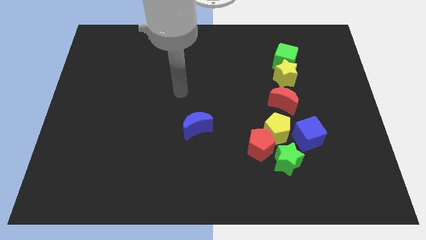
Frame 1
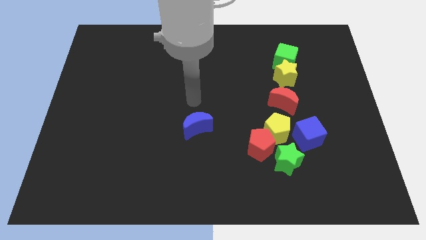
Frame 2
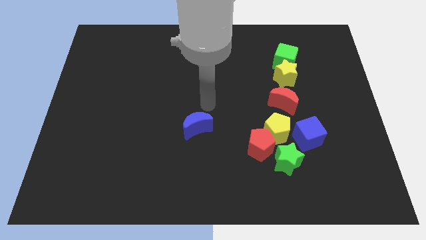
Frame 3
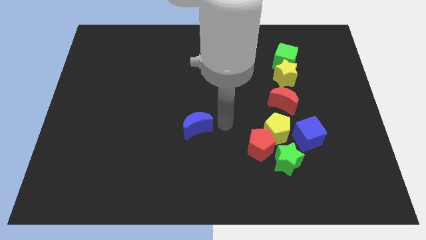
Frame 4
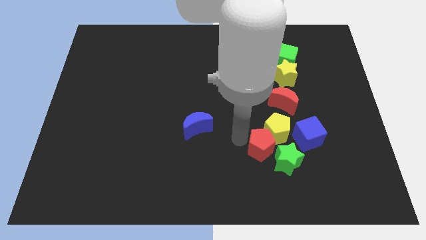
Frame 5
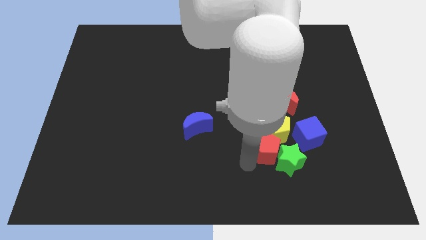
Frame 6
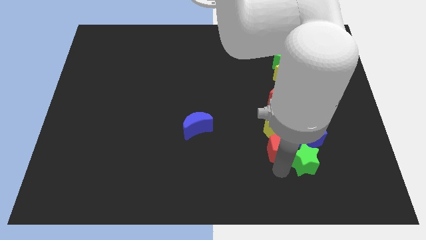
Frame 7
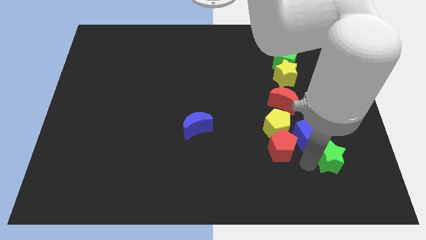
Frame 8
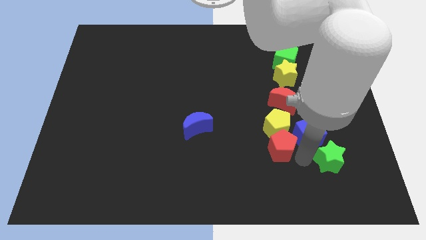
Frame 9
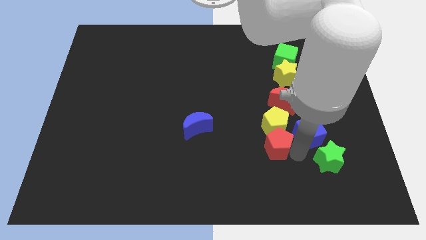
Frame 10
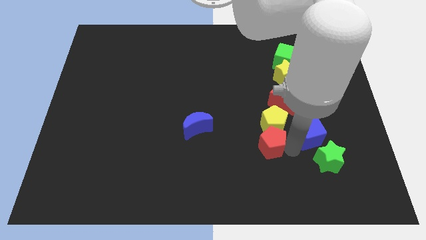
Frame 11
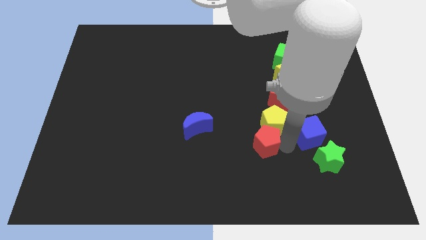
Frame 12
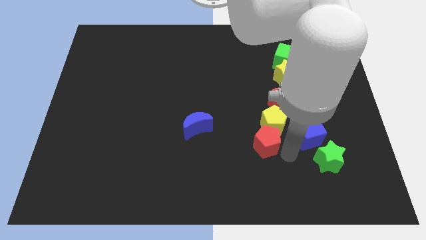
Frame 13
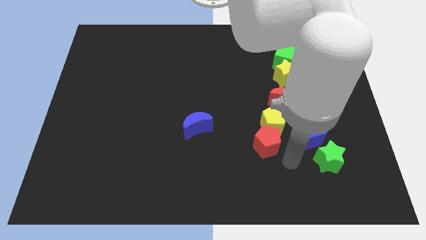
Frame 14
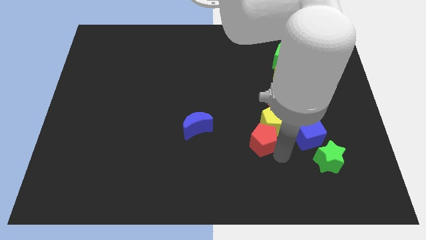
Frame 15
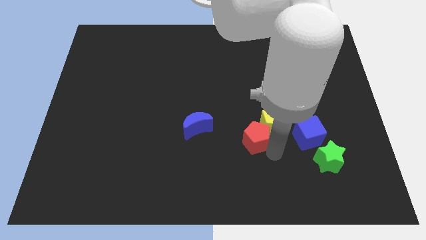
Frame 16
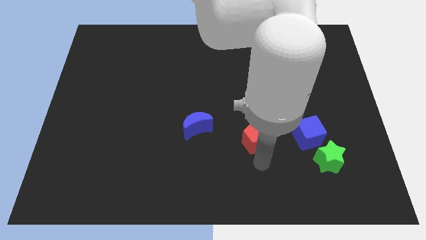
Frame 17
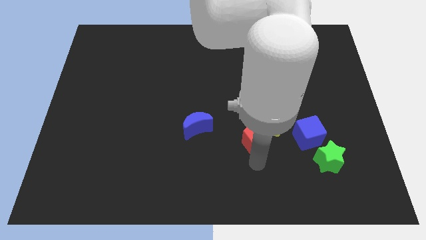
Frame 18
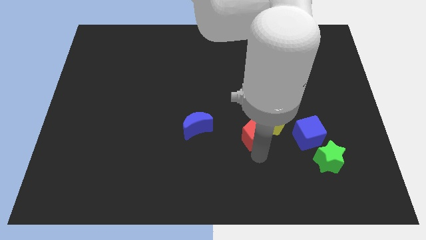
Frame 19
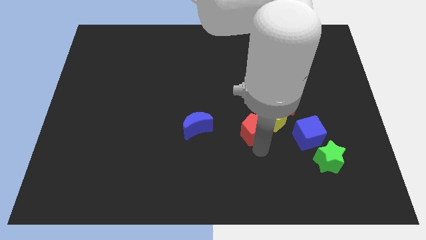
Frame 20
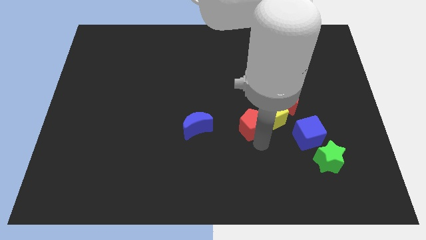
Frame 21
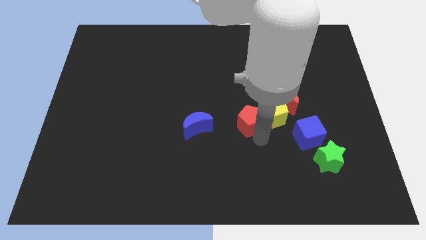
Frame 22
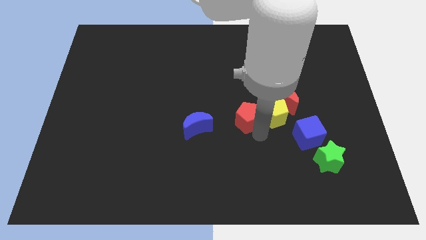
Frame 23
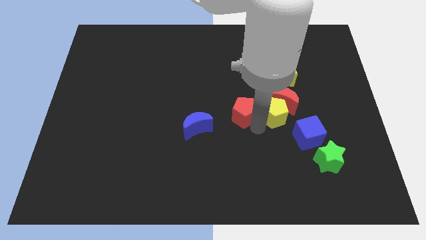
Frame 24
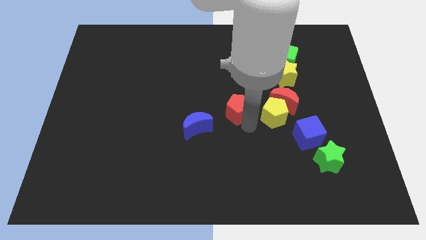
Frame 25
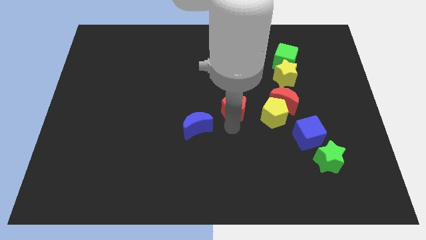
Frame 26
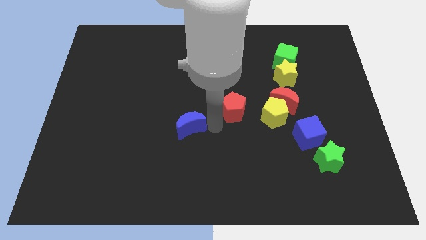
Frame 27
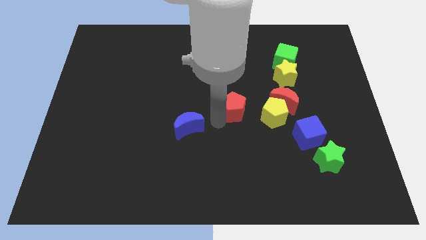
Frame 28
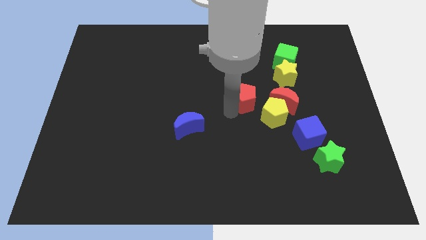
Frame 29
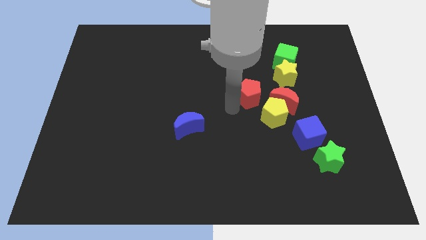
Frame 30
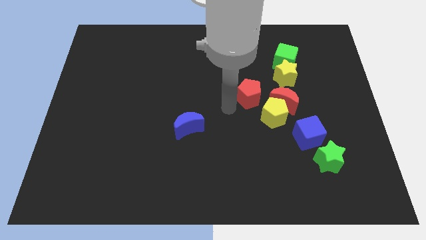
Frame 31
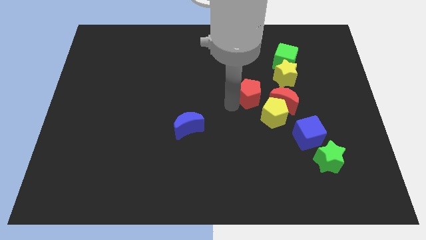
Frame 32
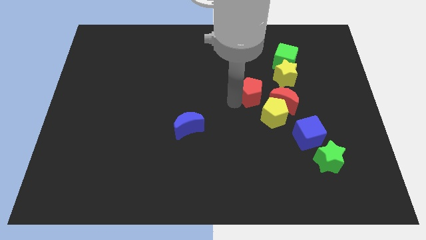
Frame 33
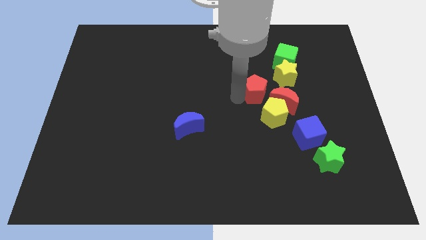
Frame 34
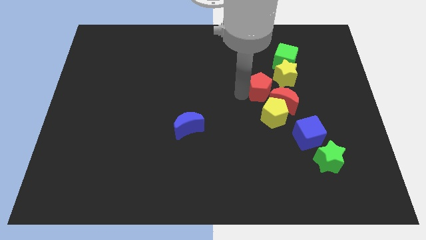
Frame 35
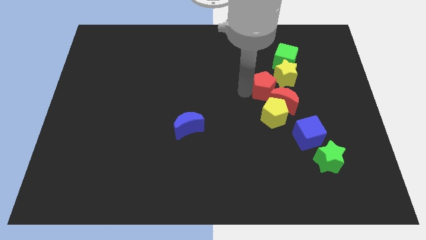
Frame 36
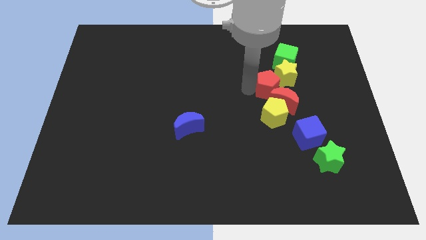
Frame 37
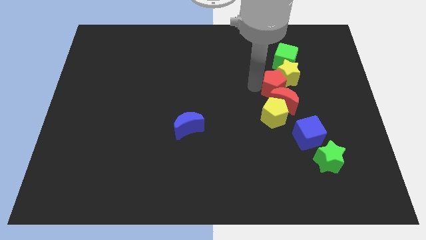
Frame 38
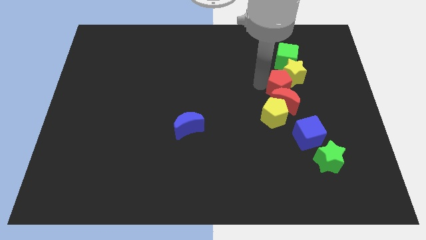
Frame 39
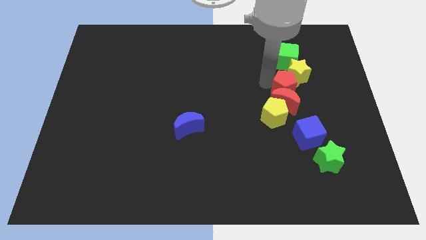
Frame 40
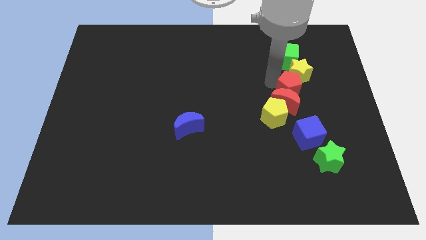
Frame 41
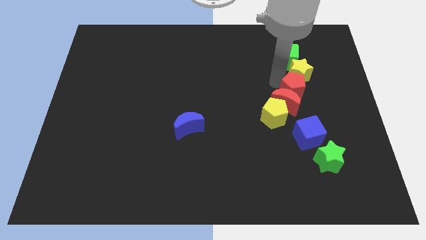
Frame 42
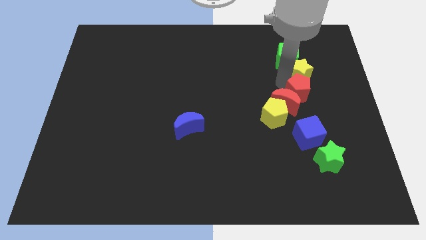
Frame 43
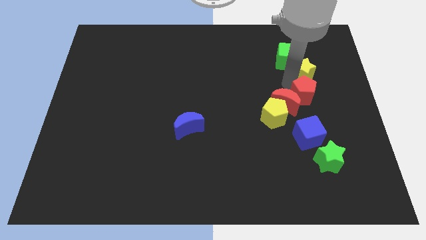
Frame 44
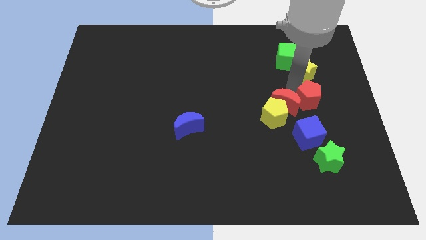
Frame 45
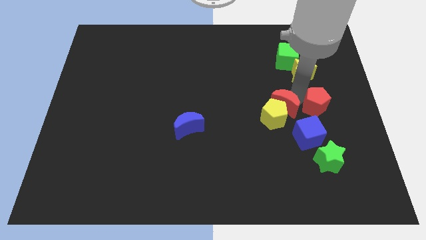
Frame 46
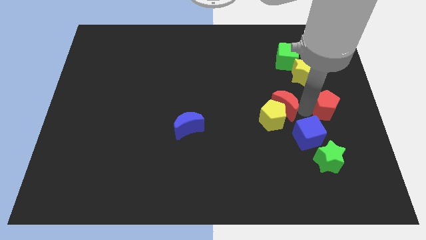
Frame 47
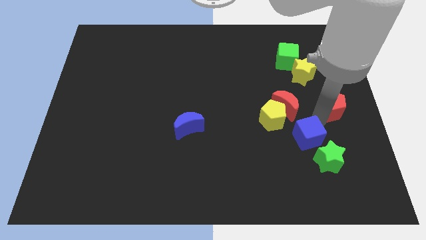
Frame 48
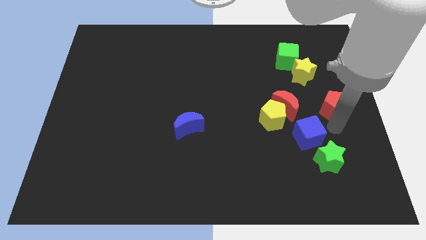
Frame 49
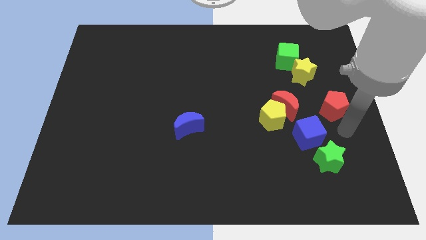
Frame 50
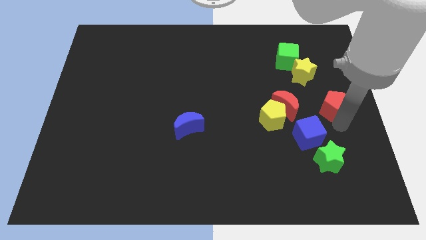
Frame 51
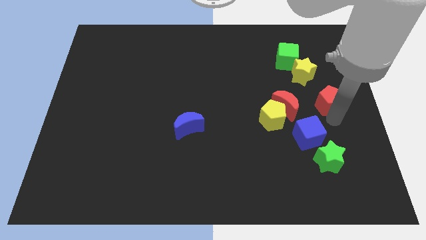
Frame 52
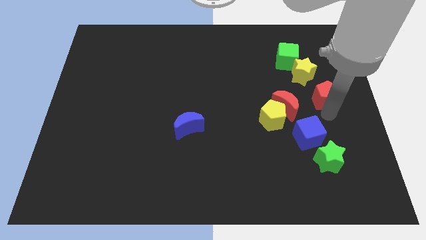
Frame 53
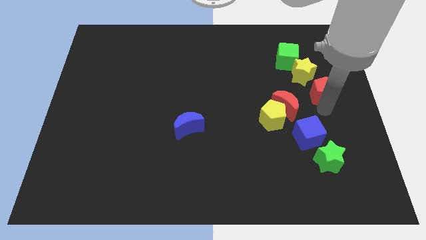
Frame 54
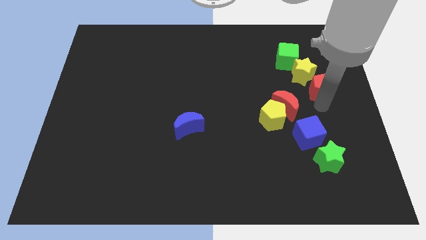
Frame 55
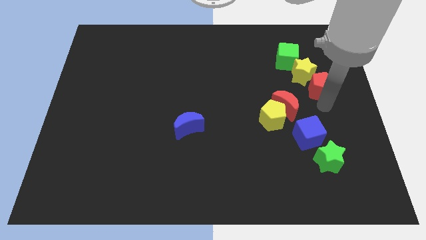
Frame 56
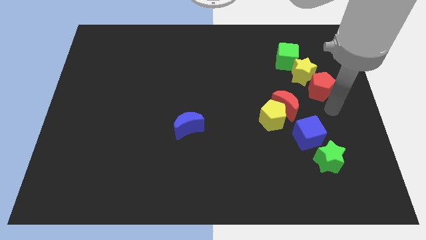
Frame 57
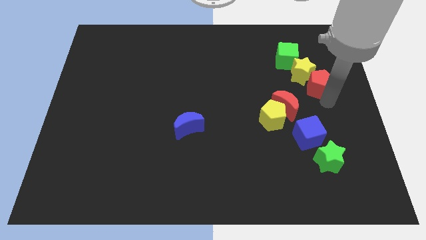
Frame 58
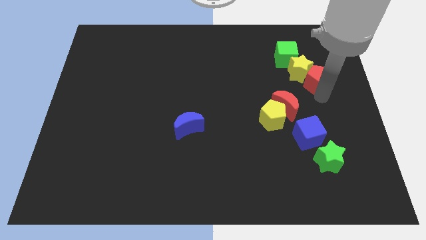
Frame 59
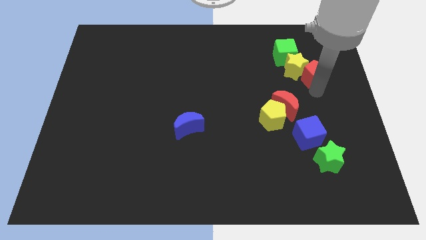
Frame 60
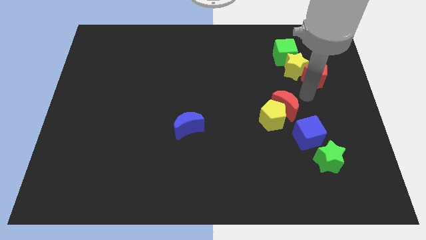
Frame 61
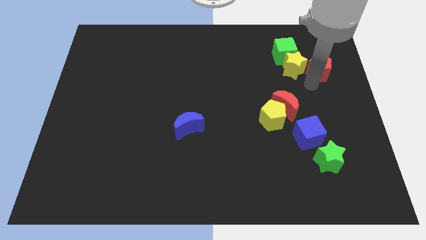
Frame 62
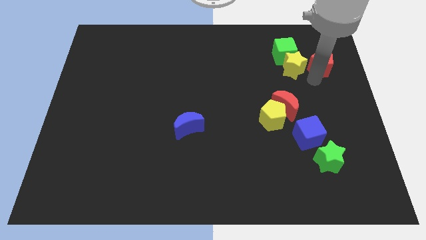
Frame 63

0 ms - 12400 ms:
slide the red pentagon to the right of the green cube
